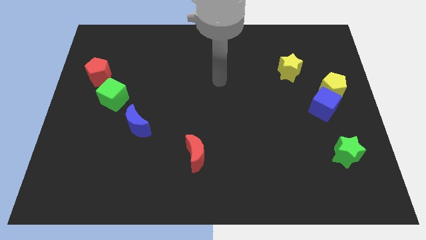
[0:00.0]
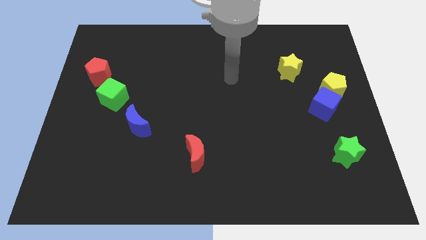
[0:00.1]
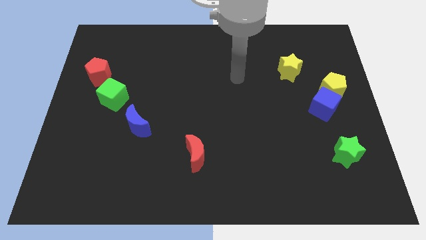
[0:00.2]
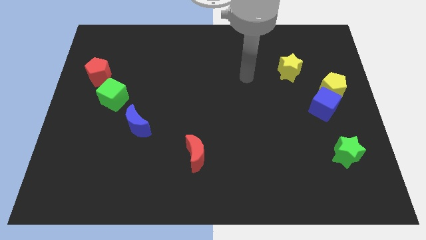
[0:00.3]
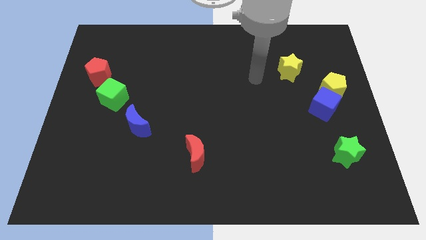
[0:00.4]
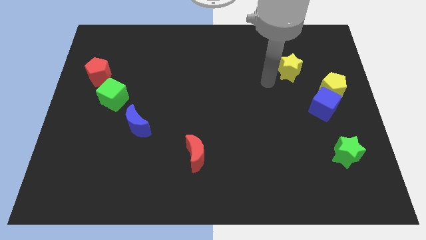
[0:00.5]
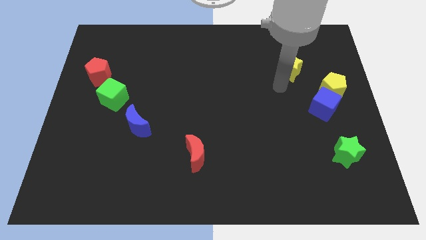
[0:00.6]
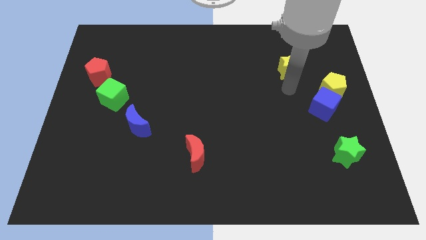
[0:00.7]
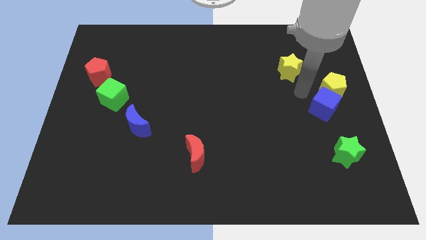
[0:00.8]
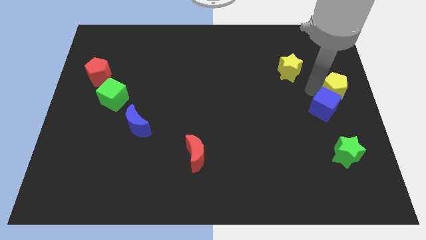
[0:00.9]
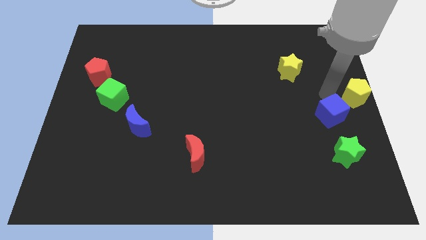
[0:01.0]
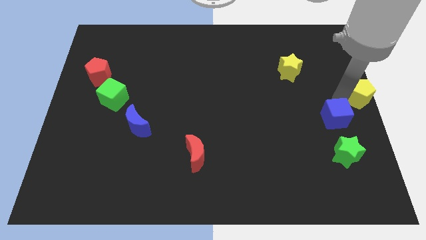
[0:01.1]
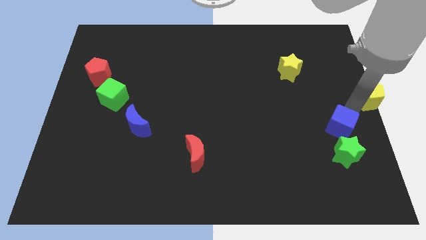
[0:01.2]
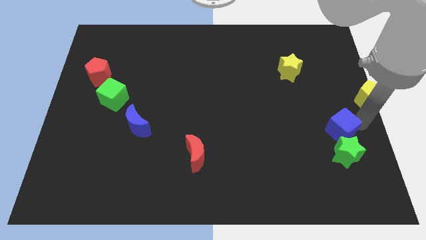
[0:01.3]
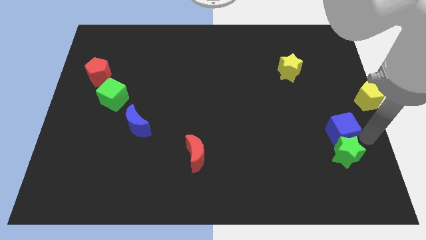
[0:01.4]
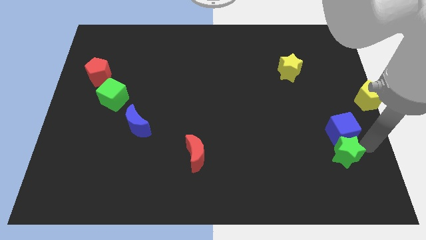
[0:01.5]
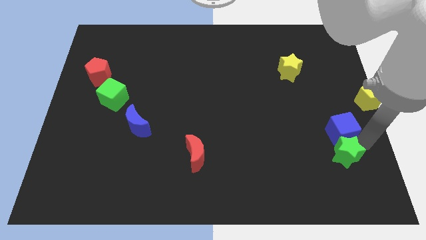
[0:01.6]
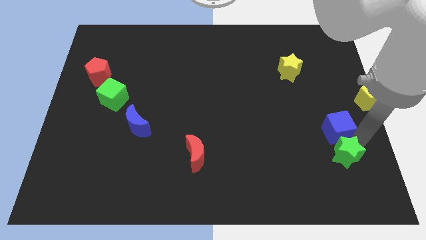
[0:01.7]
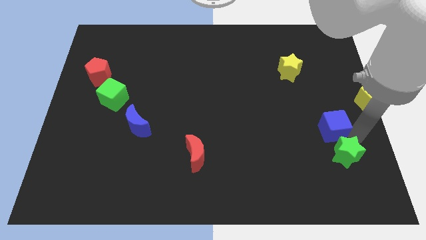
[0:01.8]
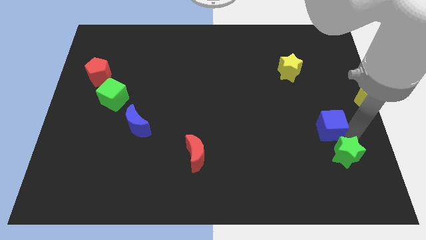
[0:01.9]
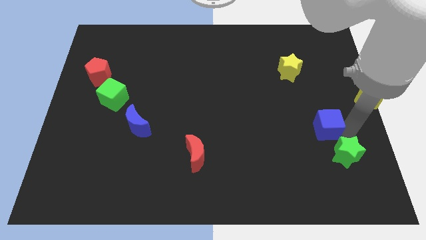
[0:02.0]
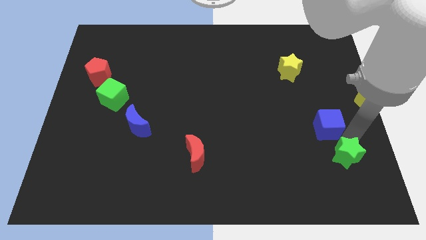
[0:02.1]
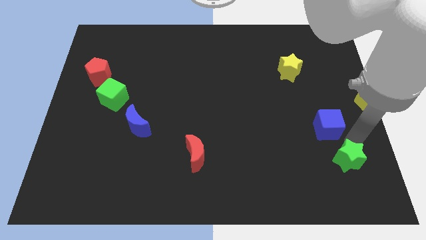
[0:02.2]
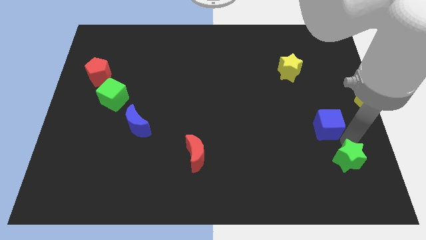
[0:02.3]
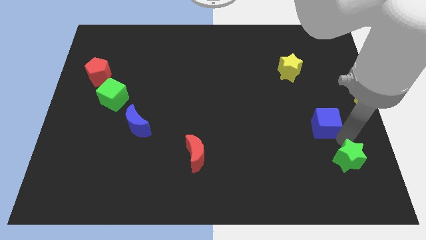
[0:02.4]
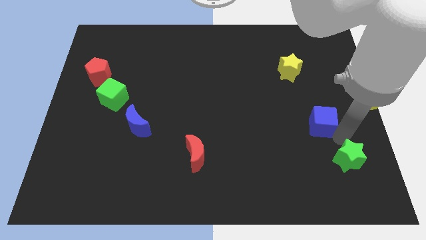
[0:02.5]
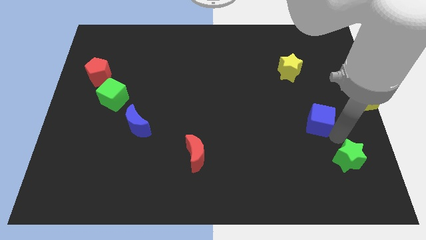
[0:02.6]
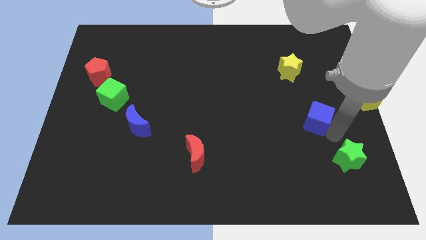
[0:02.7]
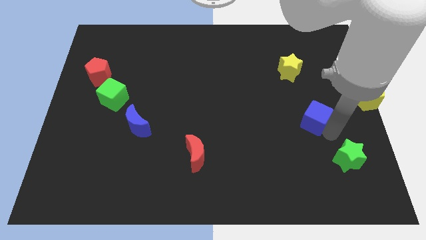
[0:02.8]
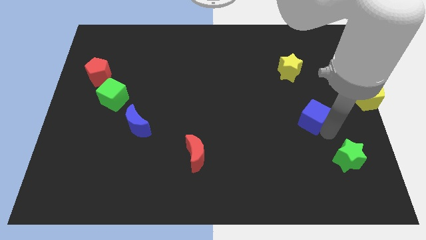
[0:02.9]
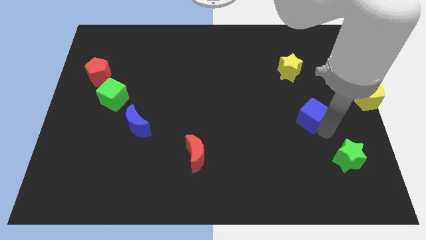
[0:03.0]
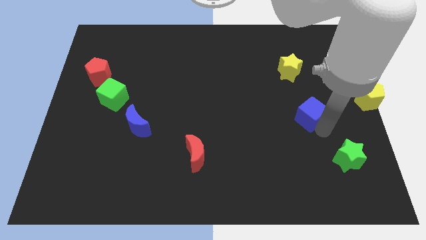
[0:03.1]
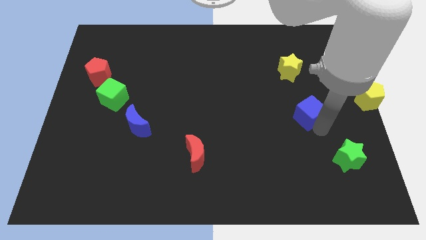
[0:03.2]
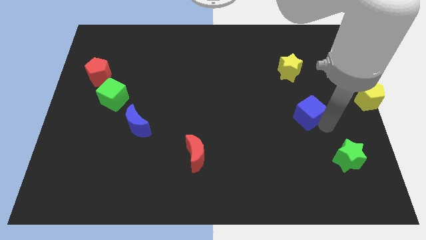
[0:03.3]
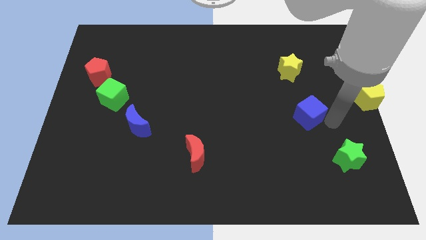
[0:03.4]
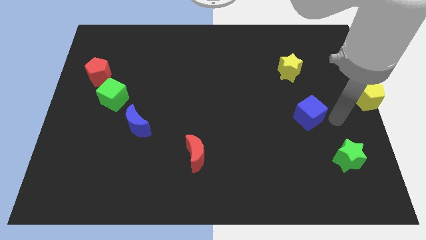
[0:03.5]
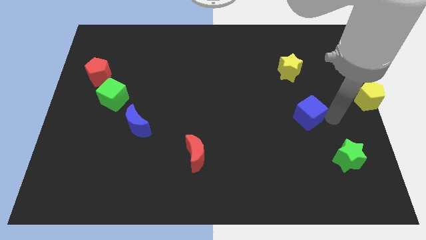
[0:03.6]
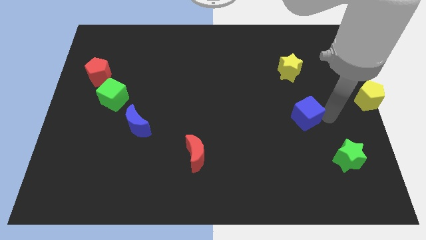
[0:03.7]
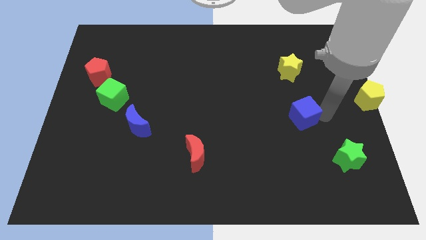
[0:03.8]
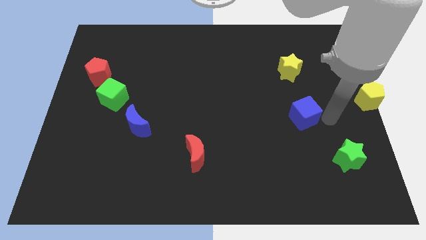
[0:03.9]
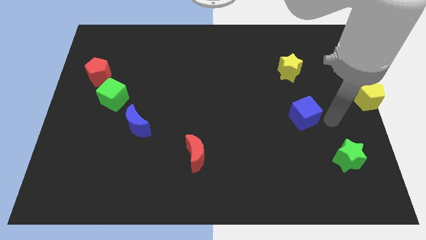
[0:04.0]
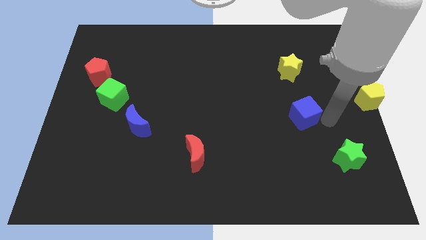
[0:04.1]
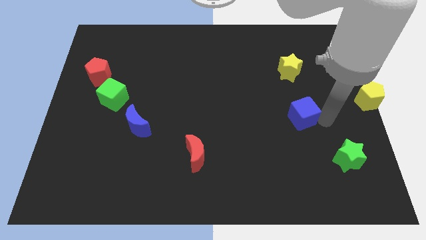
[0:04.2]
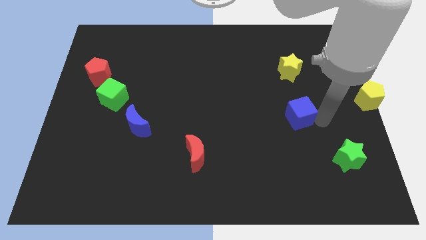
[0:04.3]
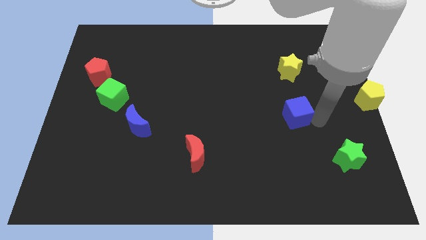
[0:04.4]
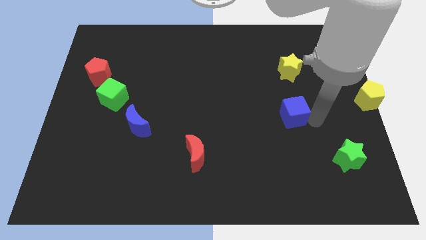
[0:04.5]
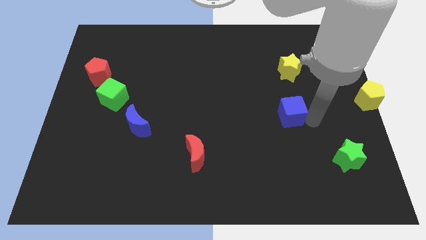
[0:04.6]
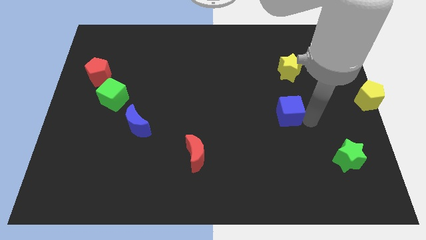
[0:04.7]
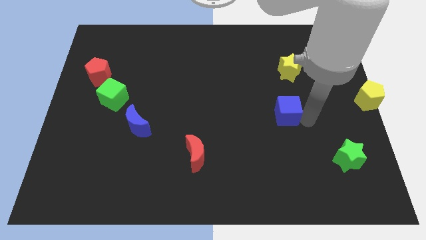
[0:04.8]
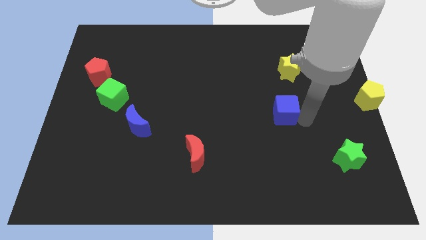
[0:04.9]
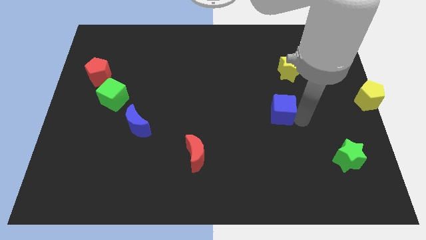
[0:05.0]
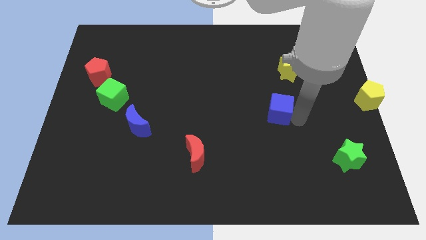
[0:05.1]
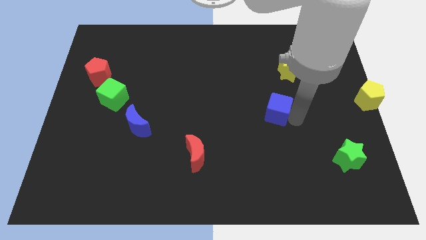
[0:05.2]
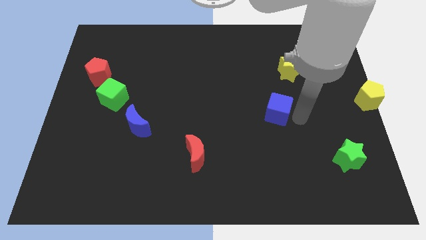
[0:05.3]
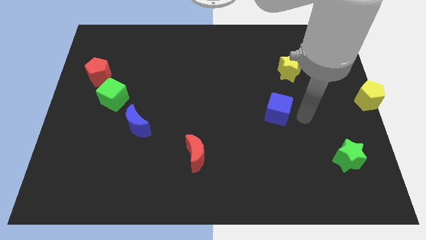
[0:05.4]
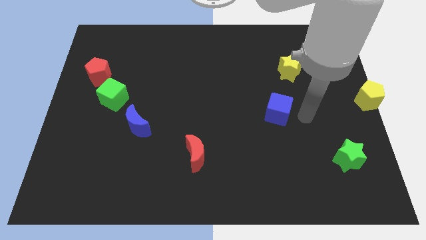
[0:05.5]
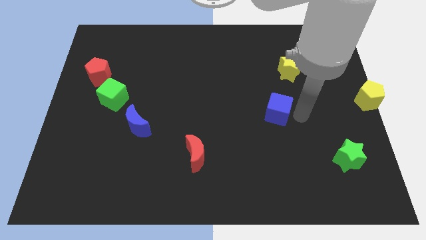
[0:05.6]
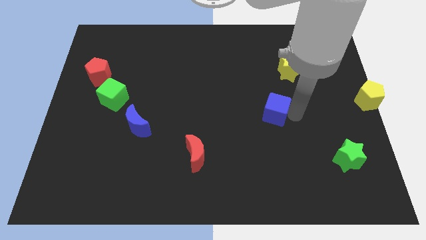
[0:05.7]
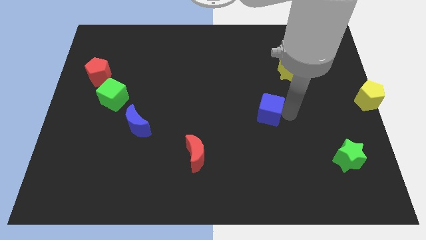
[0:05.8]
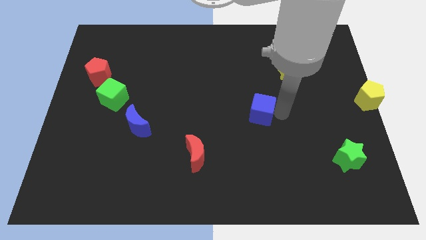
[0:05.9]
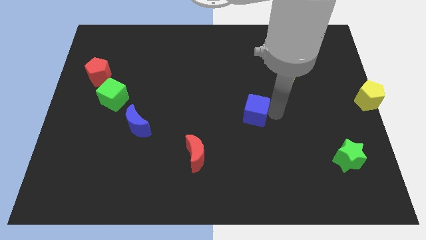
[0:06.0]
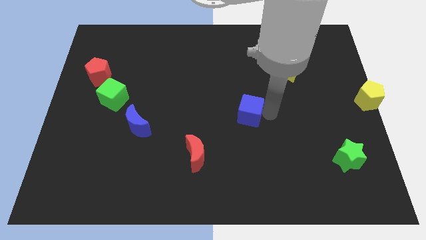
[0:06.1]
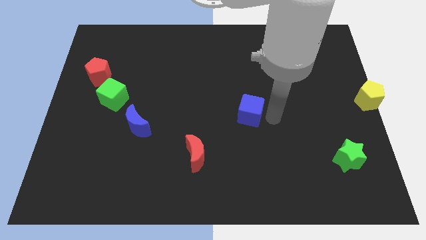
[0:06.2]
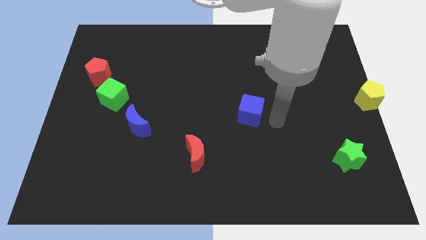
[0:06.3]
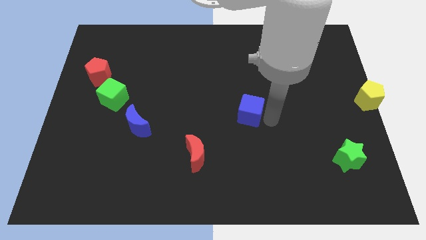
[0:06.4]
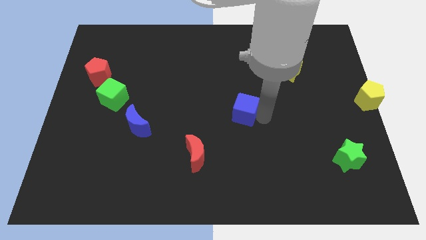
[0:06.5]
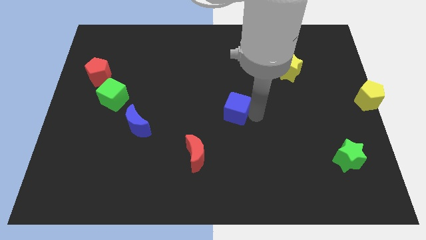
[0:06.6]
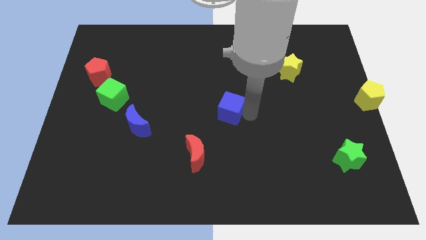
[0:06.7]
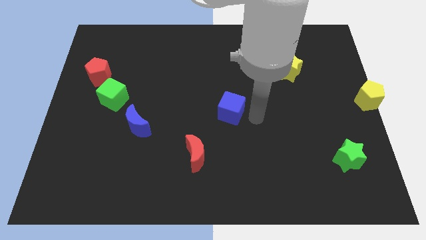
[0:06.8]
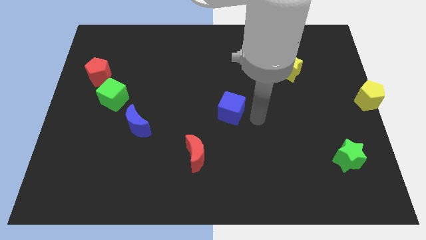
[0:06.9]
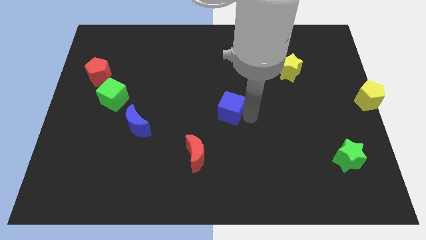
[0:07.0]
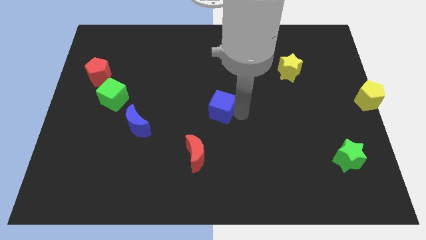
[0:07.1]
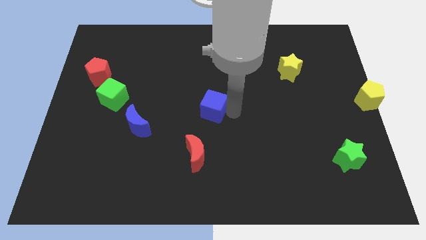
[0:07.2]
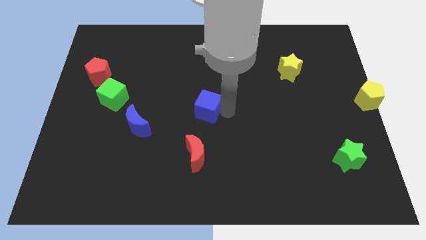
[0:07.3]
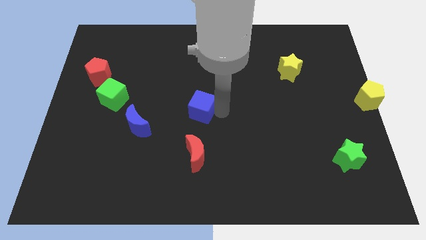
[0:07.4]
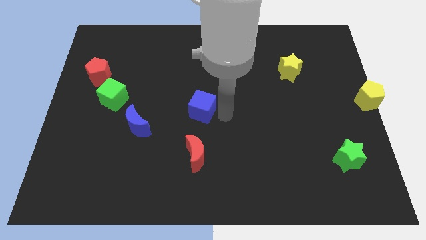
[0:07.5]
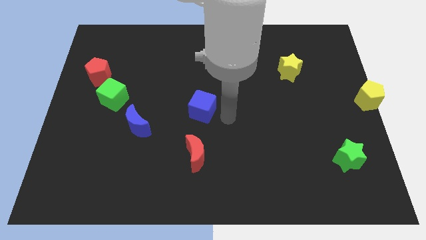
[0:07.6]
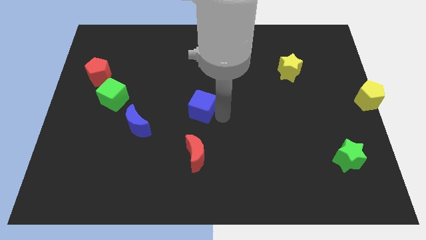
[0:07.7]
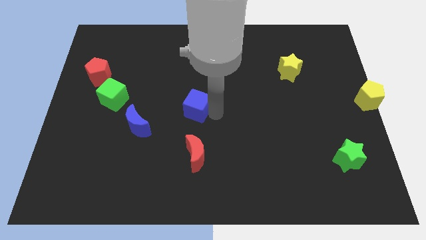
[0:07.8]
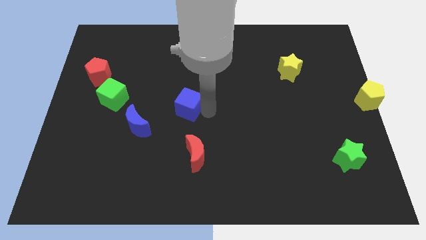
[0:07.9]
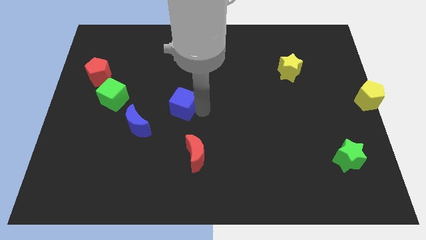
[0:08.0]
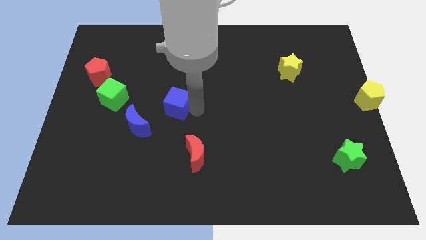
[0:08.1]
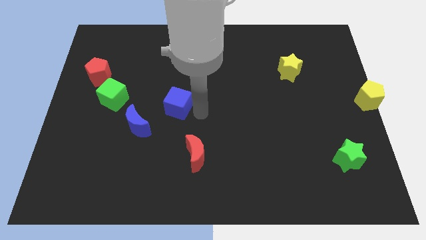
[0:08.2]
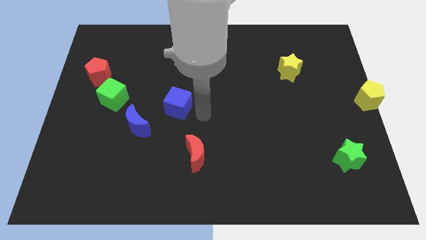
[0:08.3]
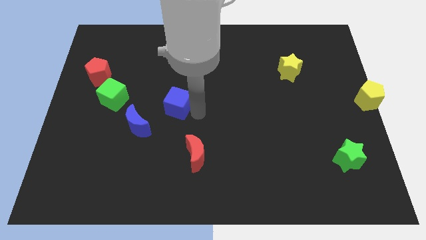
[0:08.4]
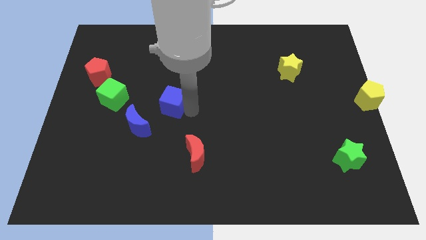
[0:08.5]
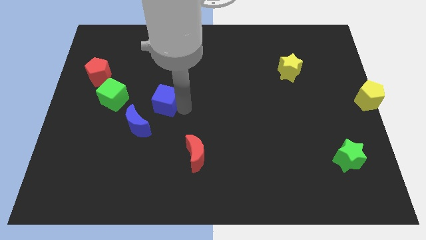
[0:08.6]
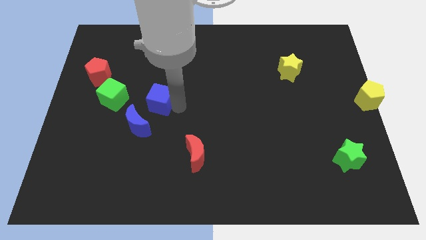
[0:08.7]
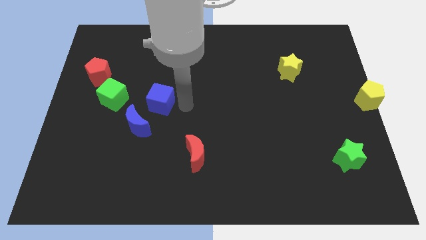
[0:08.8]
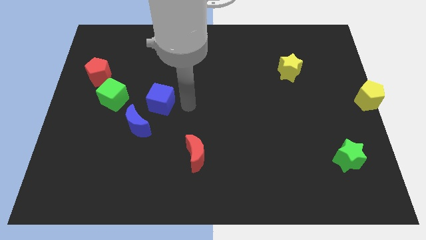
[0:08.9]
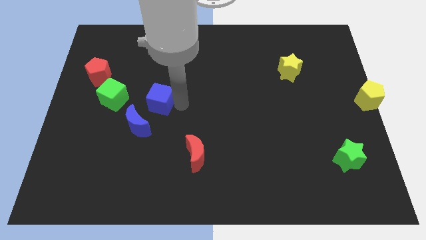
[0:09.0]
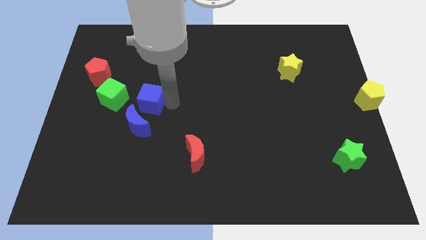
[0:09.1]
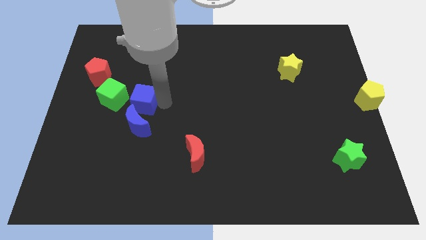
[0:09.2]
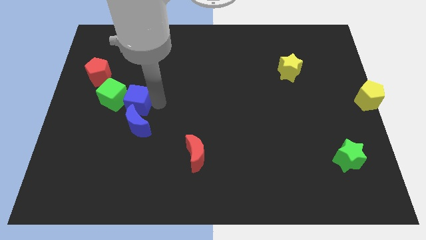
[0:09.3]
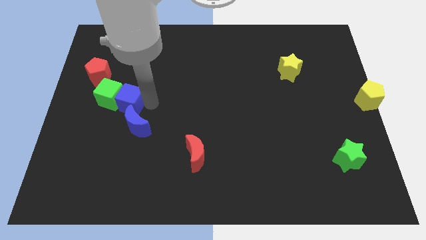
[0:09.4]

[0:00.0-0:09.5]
push the blue cube to the green cube
